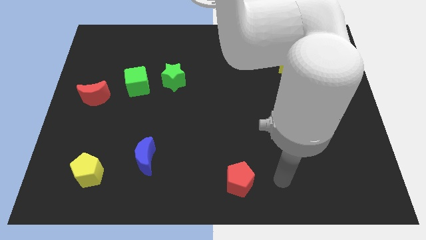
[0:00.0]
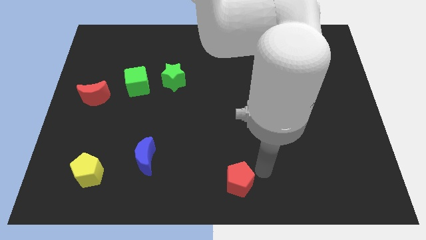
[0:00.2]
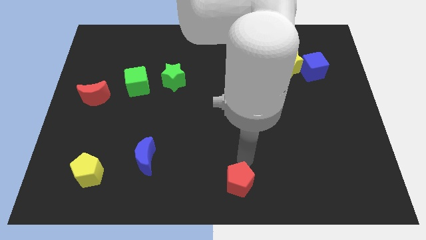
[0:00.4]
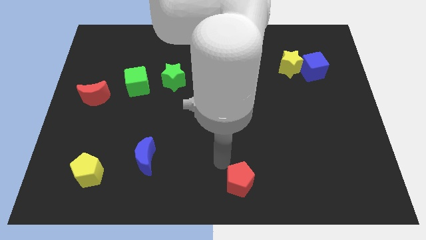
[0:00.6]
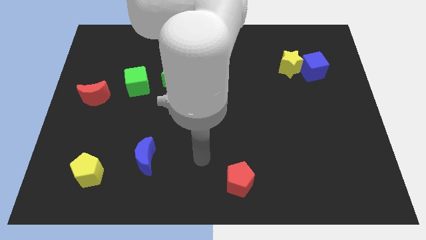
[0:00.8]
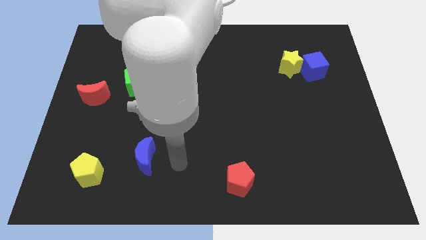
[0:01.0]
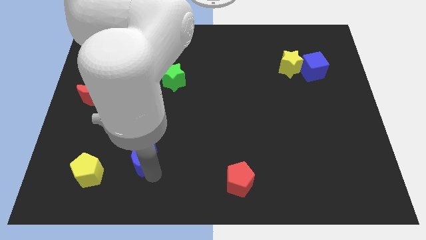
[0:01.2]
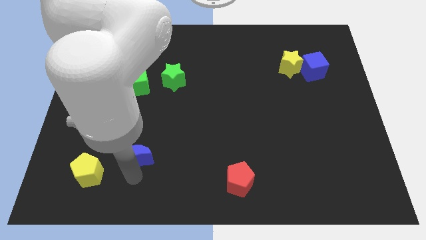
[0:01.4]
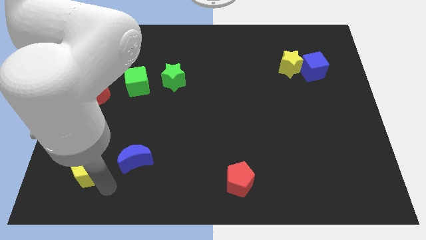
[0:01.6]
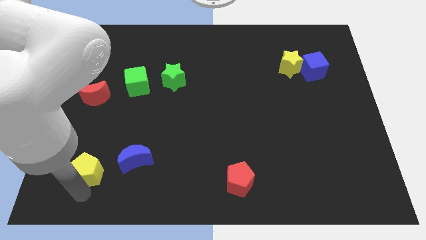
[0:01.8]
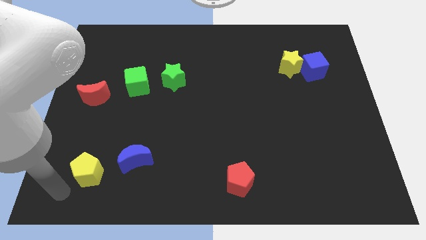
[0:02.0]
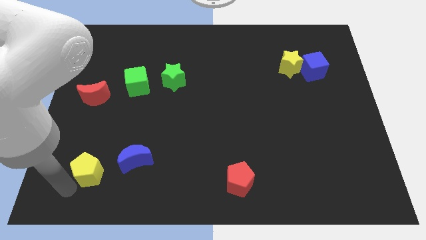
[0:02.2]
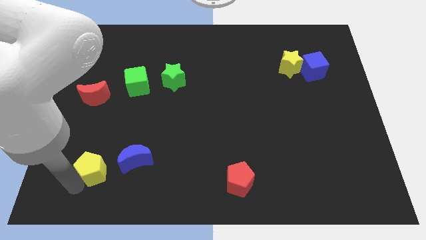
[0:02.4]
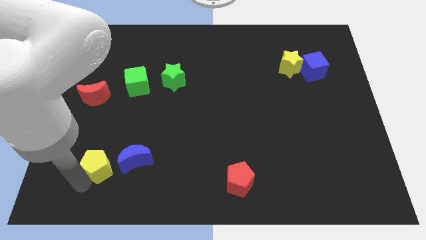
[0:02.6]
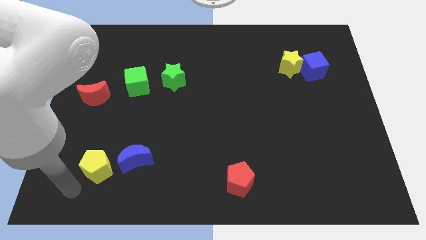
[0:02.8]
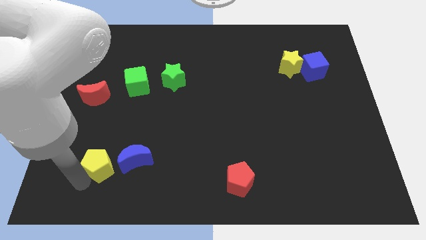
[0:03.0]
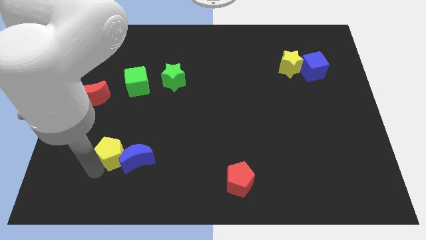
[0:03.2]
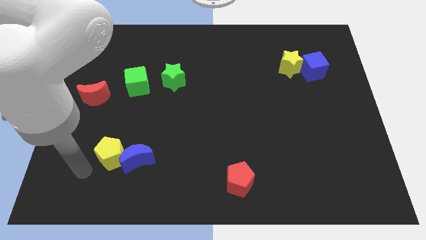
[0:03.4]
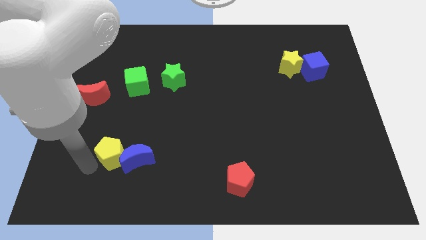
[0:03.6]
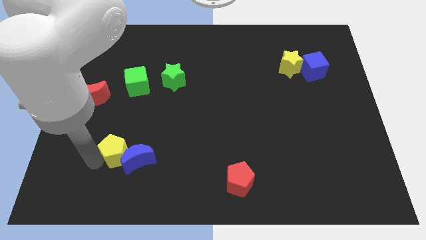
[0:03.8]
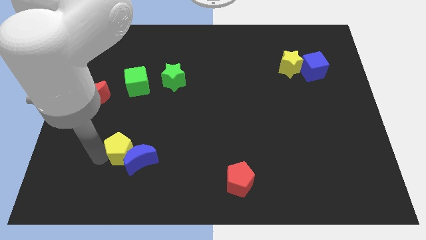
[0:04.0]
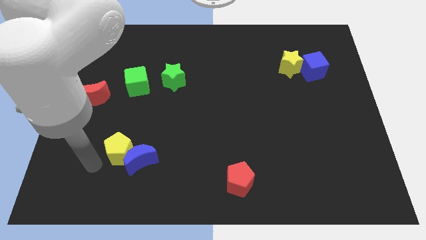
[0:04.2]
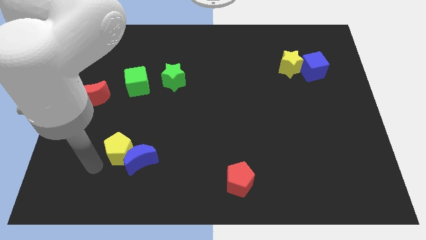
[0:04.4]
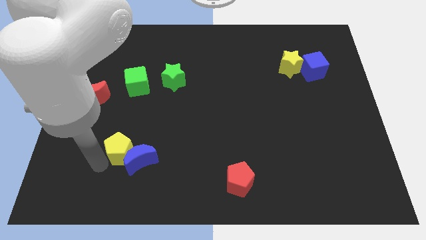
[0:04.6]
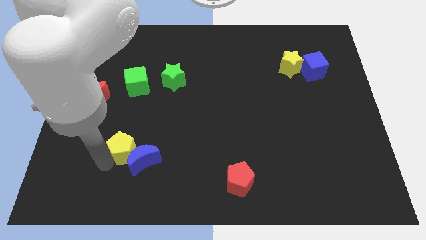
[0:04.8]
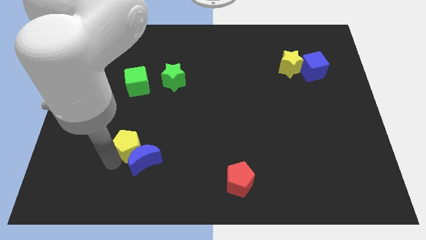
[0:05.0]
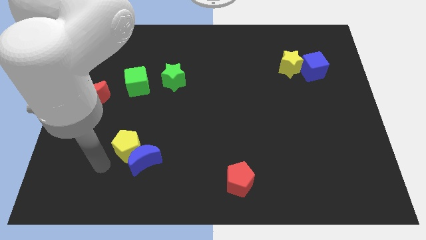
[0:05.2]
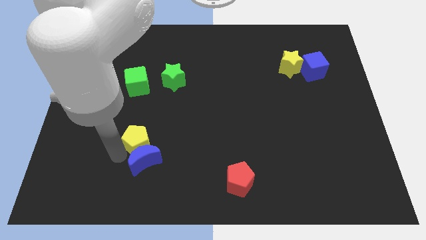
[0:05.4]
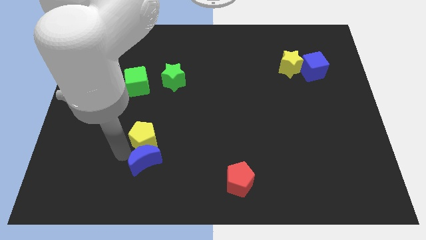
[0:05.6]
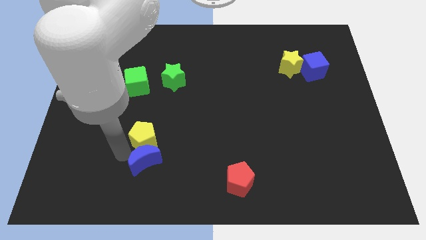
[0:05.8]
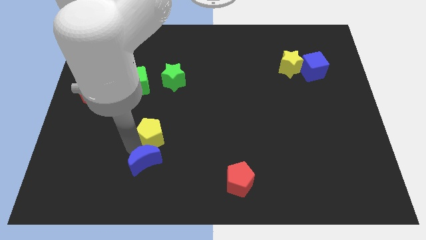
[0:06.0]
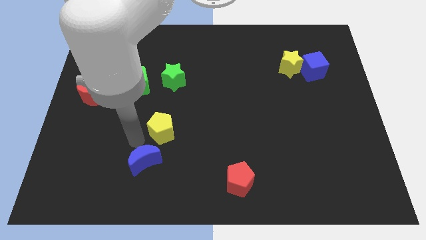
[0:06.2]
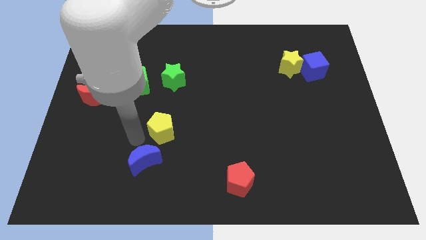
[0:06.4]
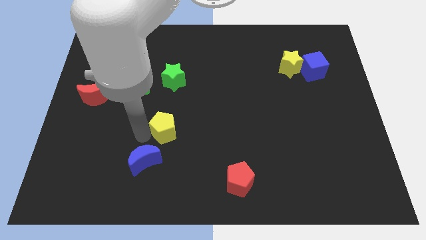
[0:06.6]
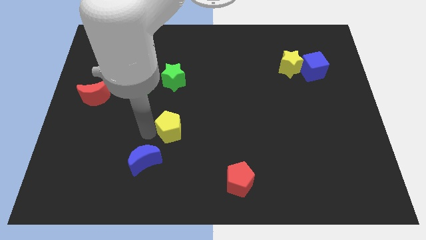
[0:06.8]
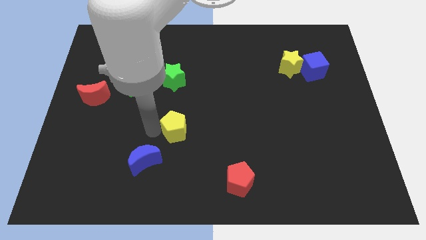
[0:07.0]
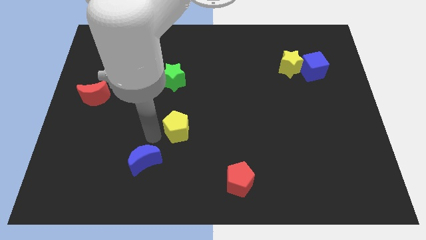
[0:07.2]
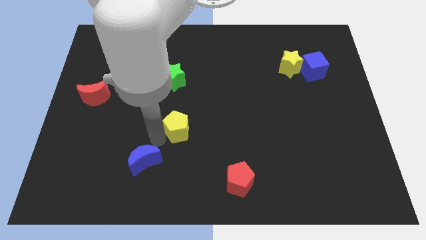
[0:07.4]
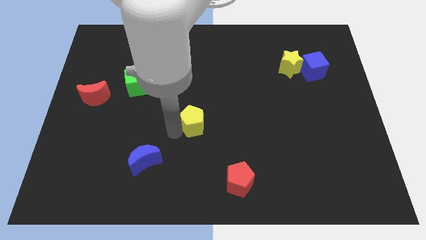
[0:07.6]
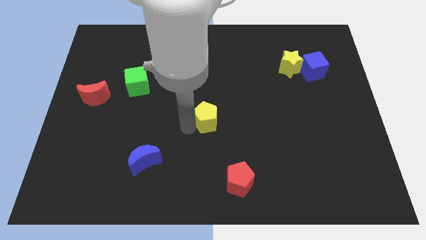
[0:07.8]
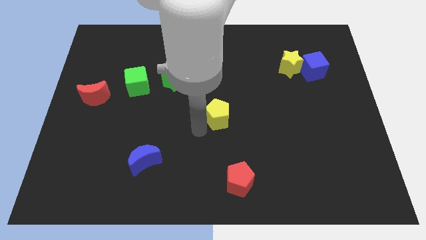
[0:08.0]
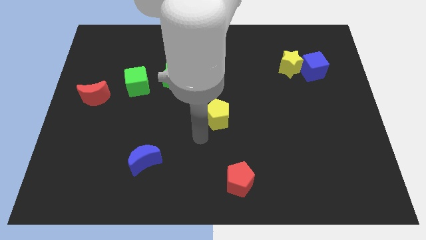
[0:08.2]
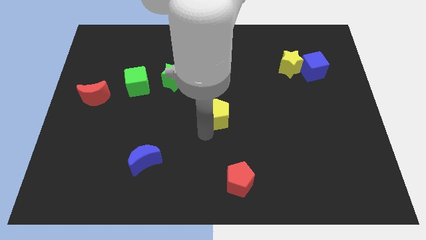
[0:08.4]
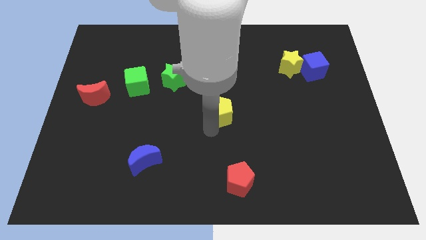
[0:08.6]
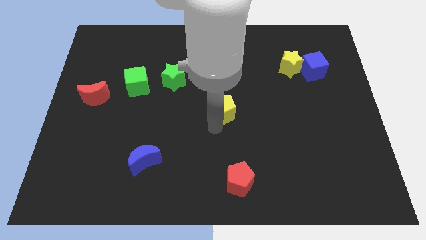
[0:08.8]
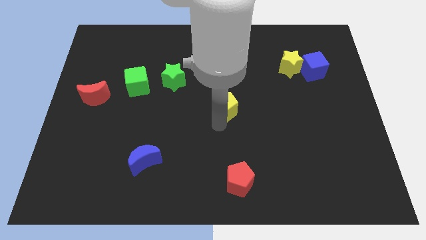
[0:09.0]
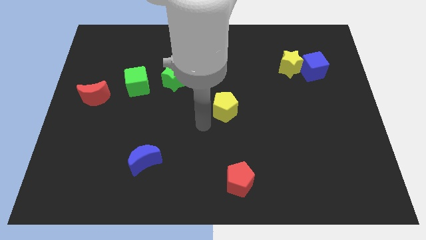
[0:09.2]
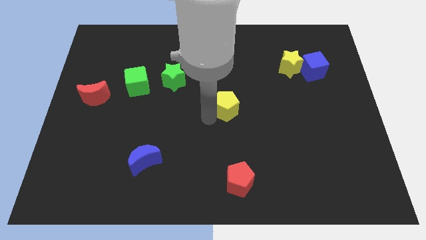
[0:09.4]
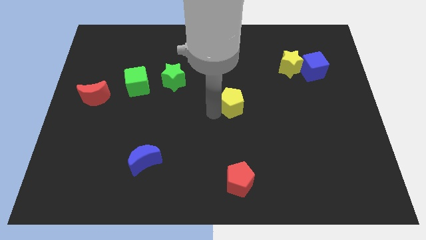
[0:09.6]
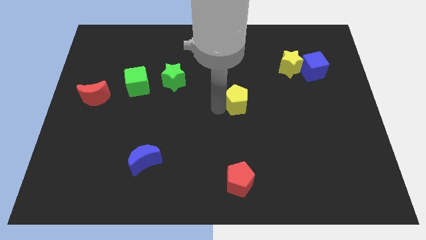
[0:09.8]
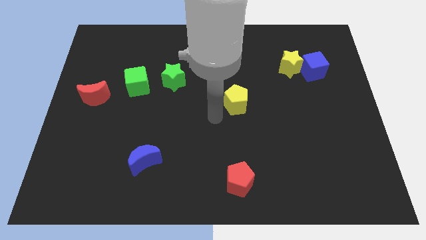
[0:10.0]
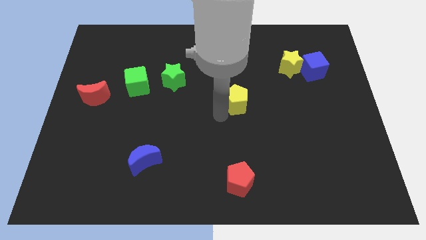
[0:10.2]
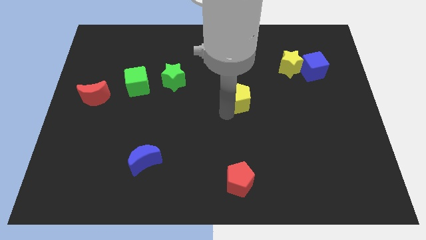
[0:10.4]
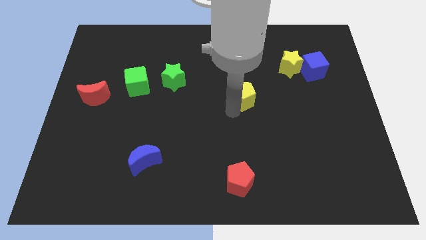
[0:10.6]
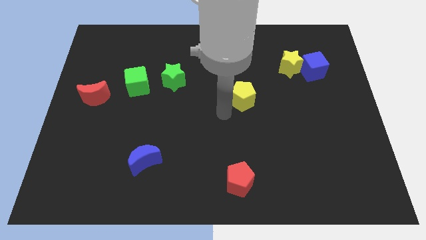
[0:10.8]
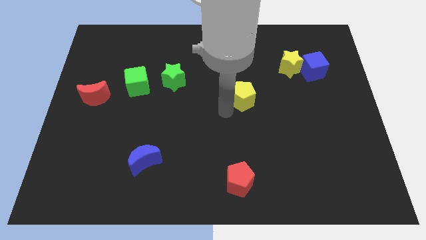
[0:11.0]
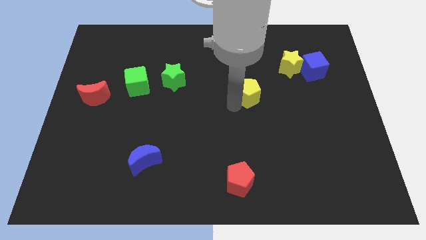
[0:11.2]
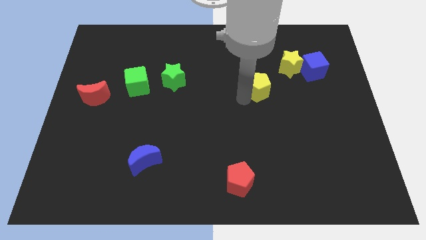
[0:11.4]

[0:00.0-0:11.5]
move the yellow pentagon to the bottom left side of the yellow star
